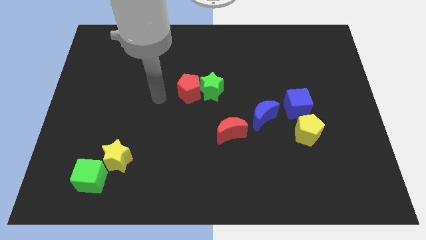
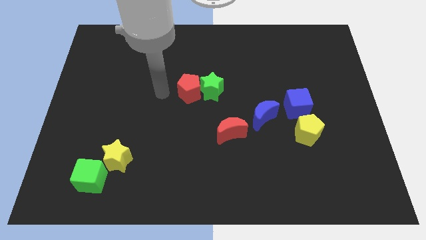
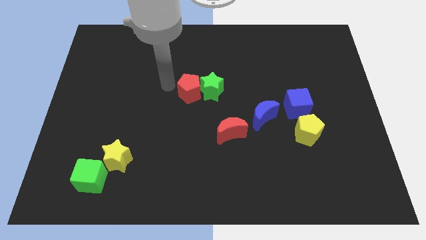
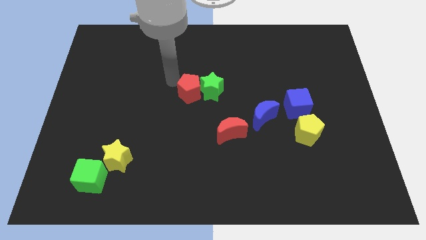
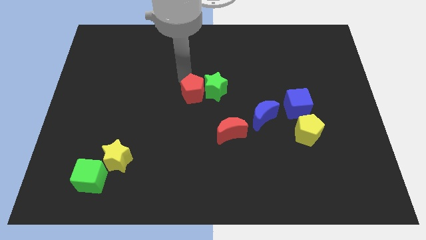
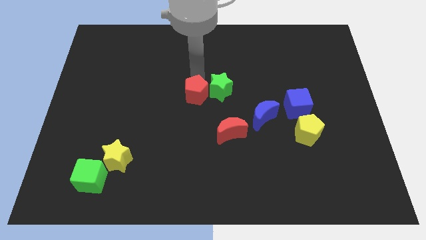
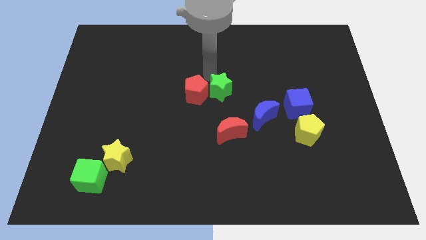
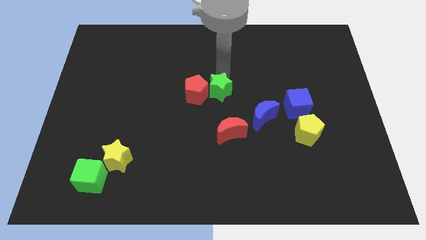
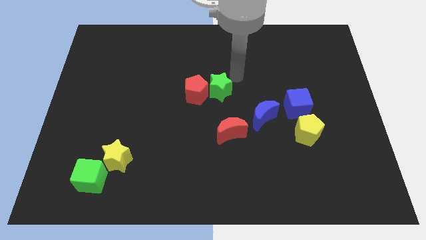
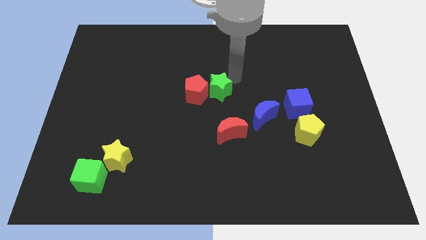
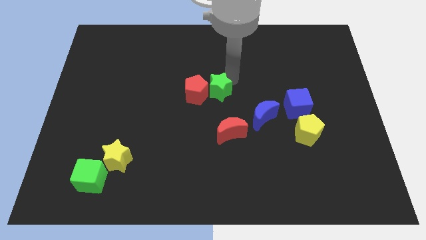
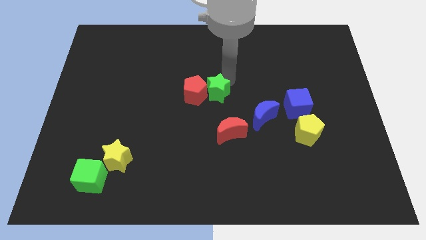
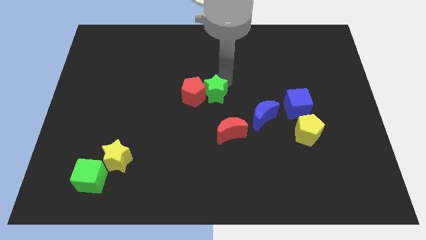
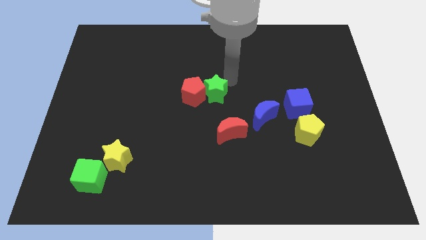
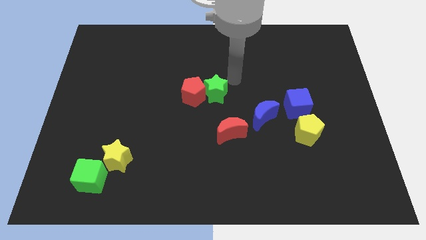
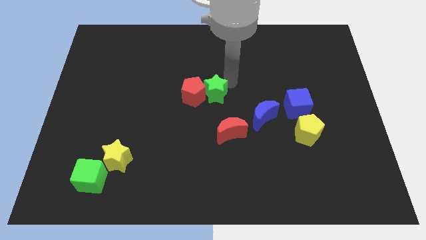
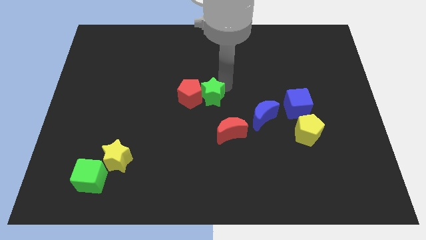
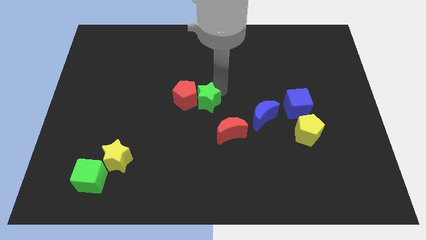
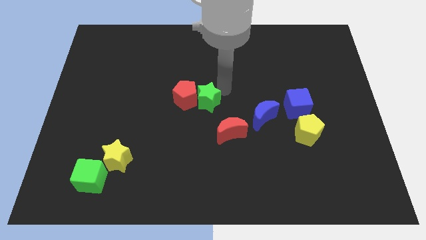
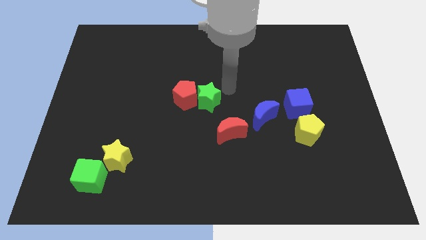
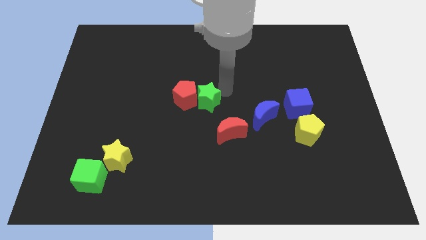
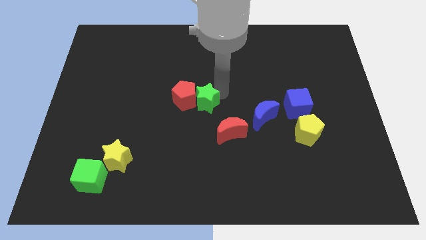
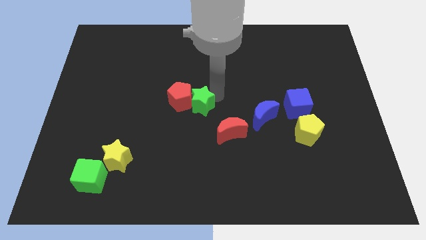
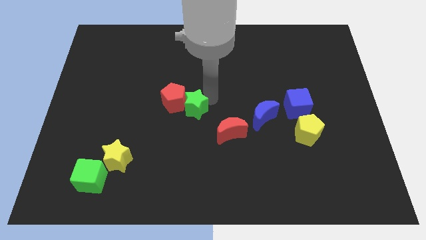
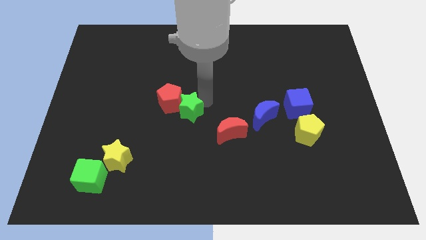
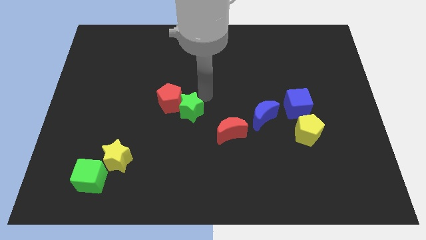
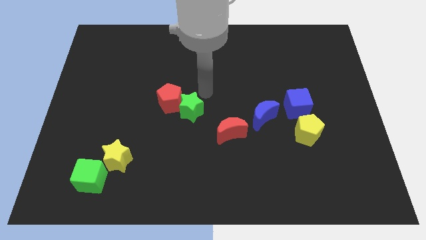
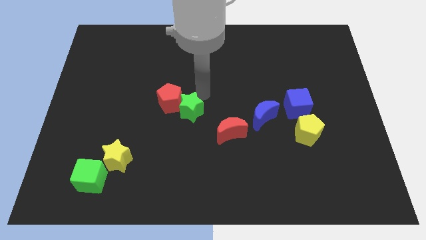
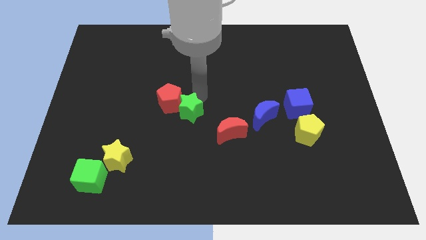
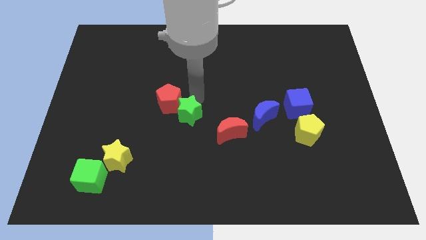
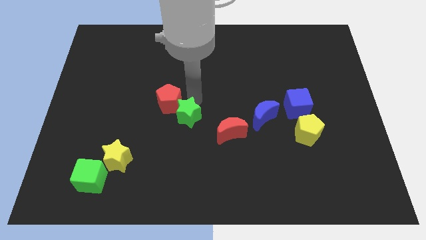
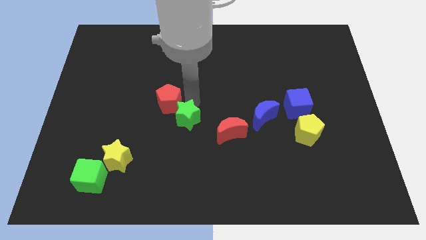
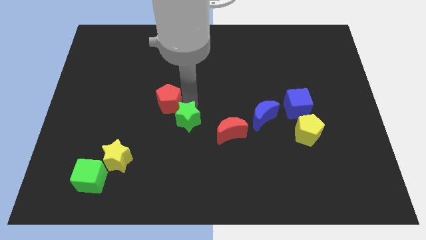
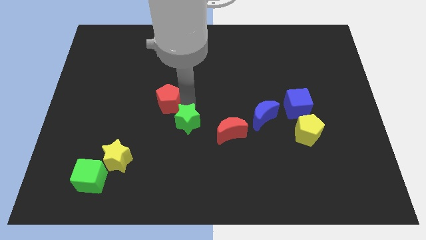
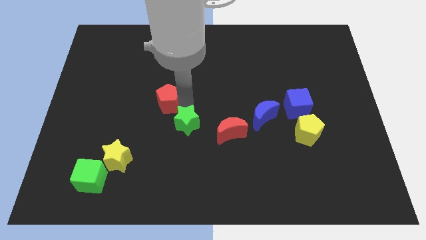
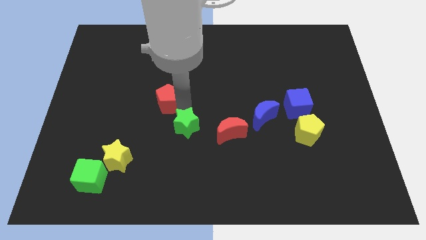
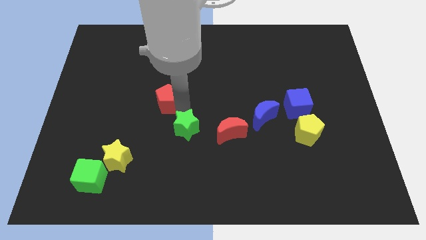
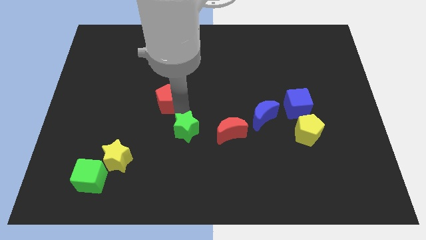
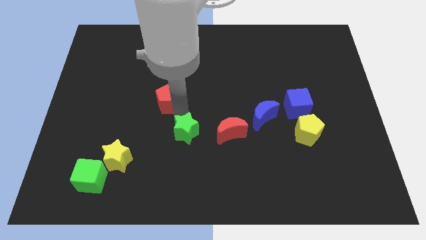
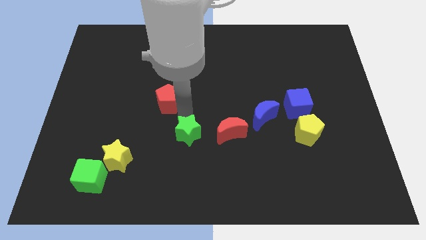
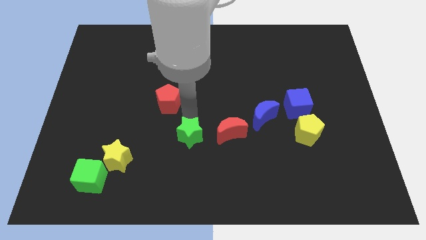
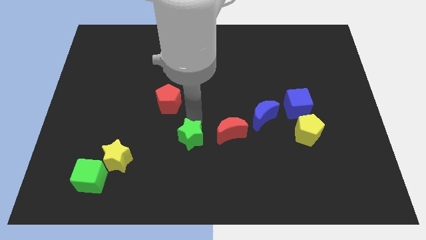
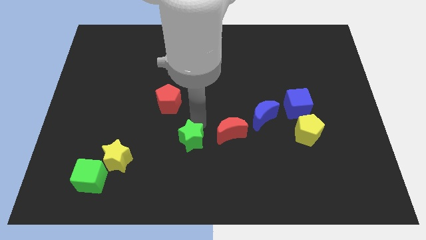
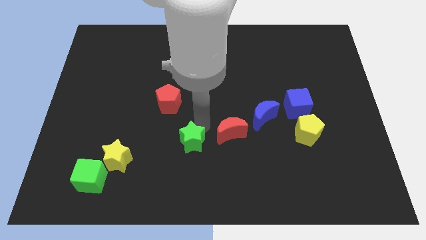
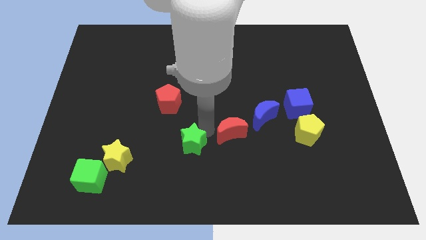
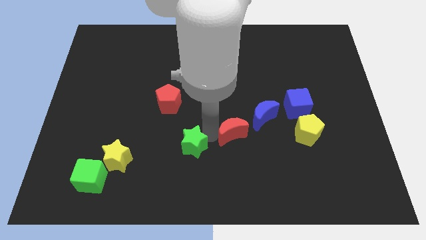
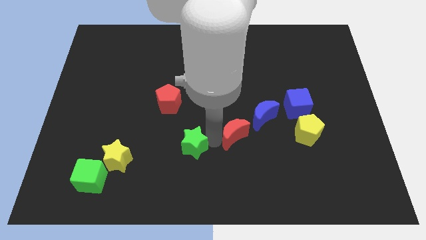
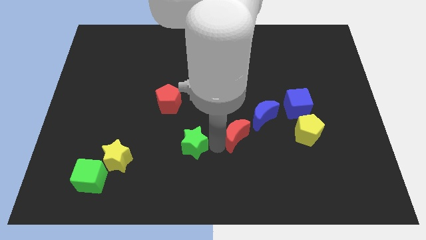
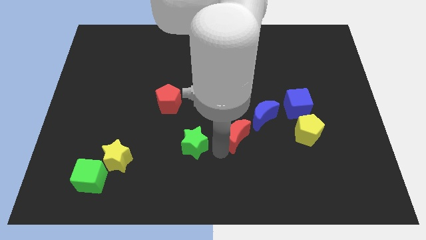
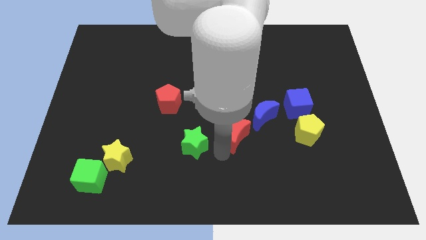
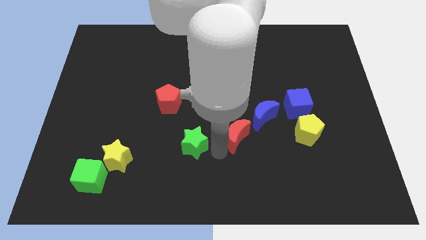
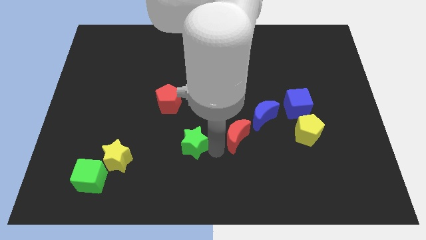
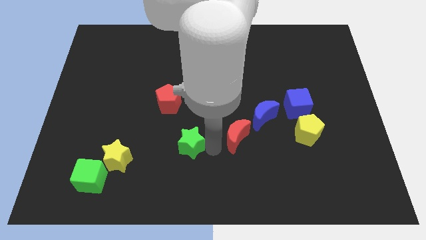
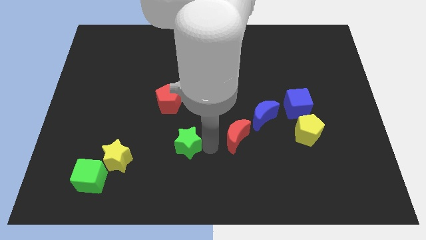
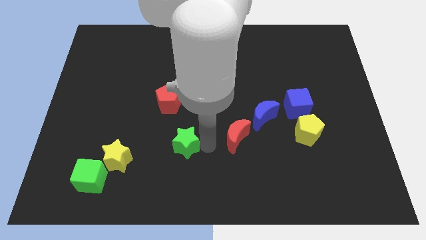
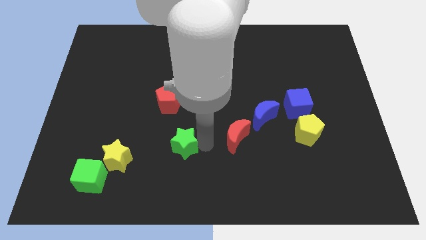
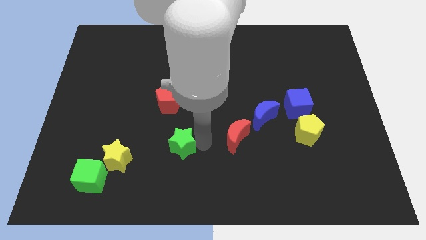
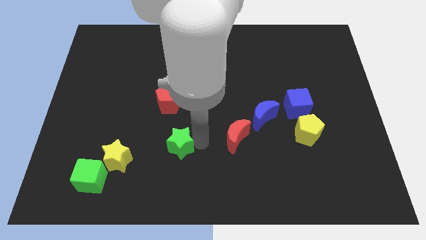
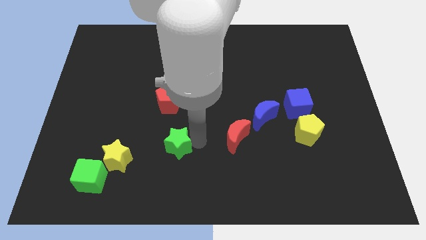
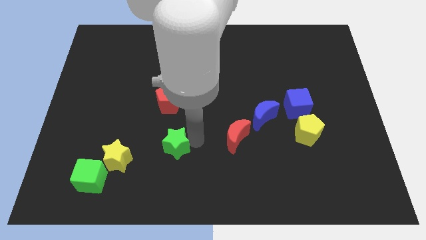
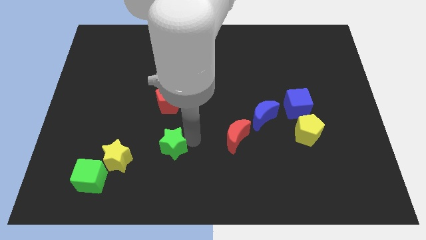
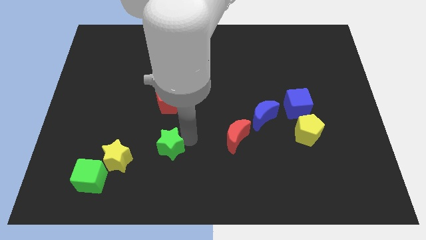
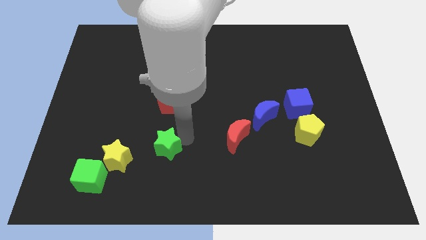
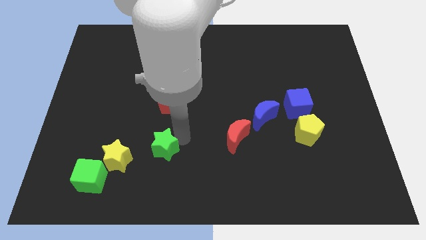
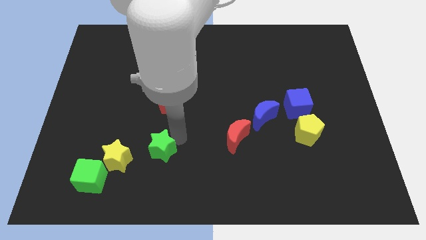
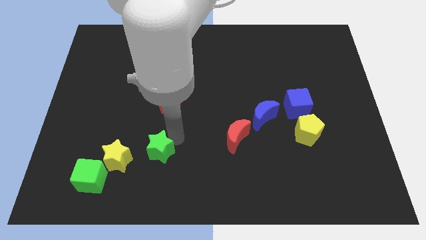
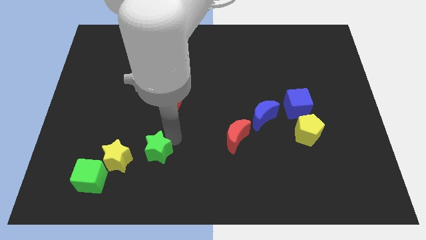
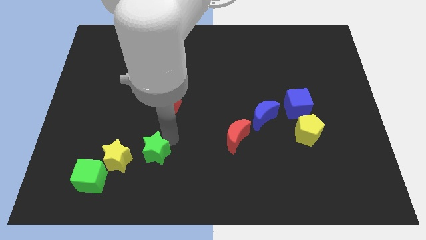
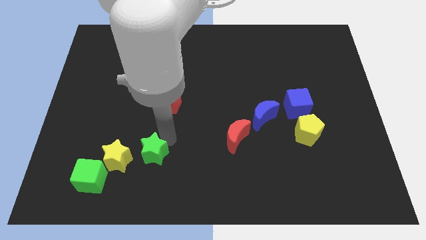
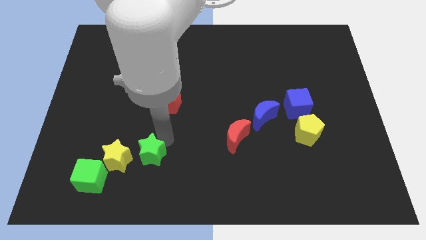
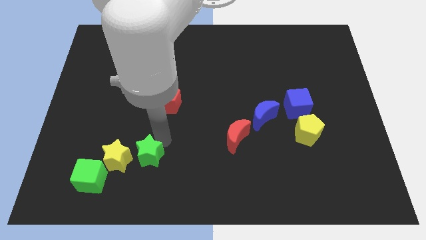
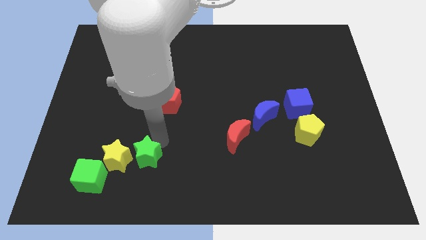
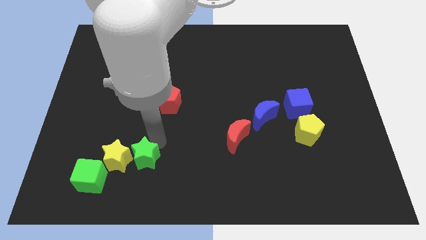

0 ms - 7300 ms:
push the green star diagonally down and to the right of the yellow star
